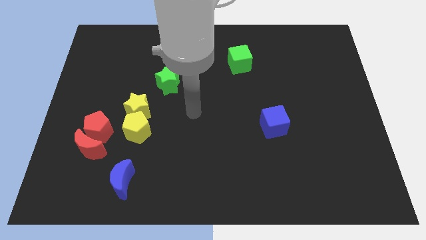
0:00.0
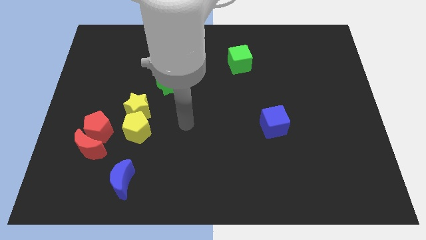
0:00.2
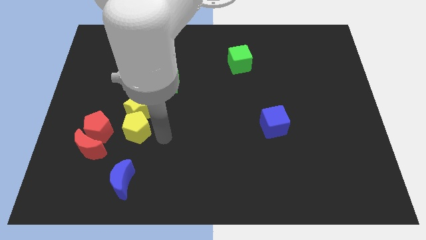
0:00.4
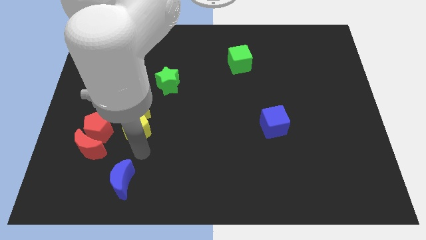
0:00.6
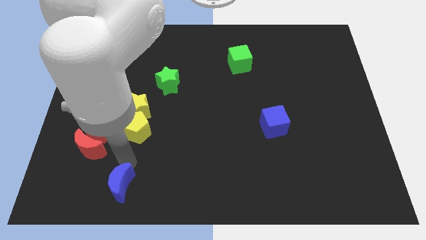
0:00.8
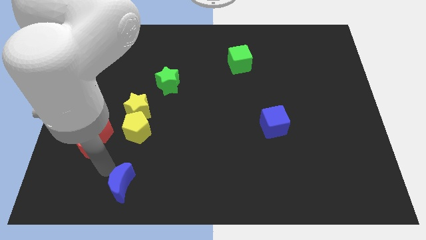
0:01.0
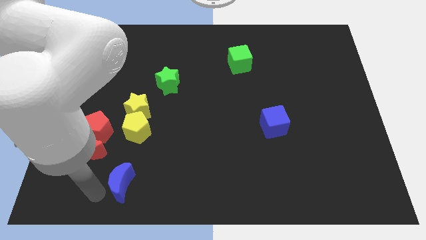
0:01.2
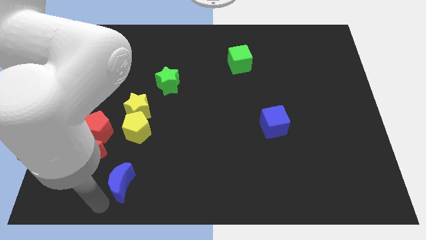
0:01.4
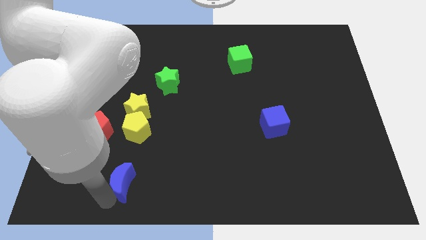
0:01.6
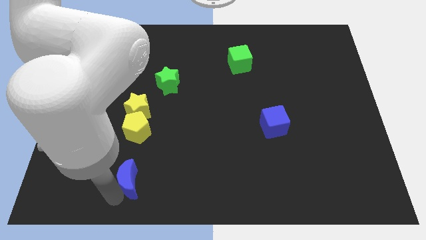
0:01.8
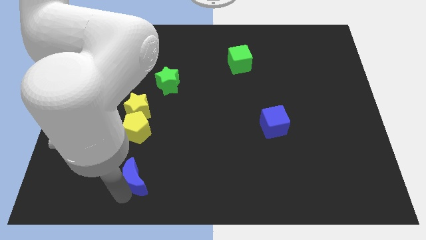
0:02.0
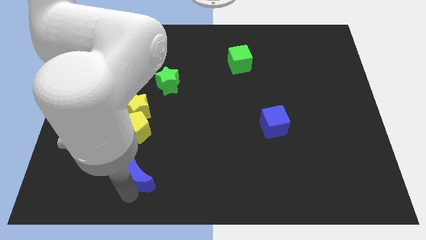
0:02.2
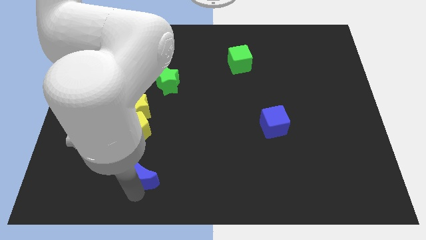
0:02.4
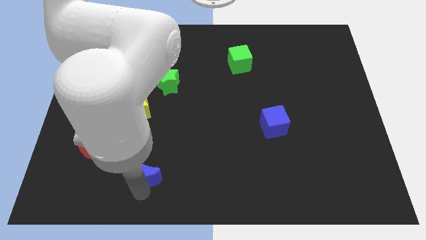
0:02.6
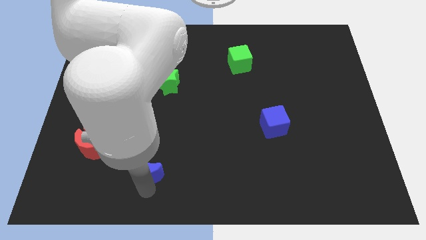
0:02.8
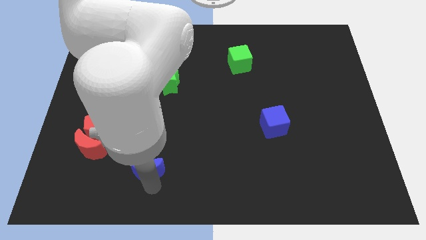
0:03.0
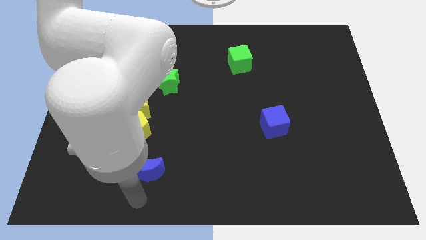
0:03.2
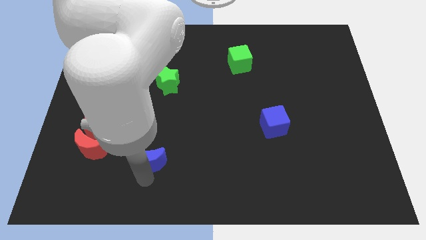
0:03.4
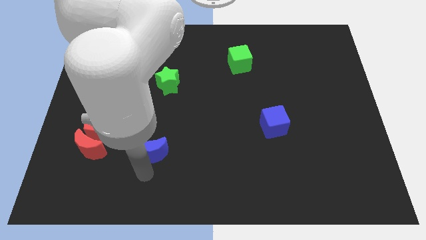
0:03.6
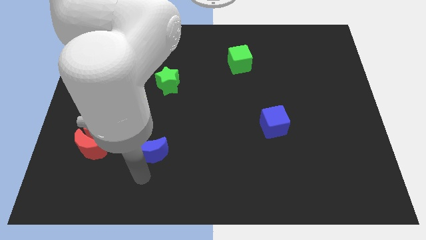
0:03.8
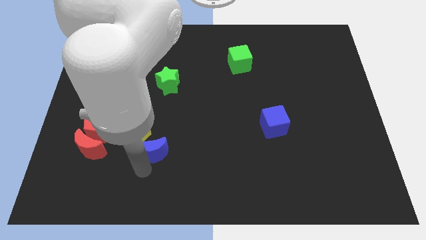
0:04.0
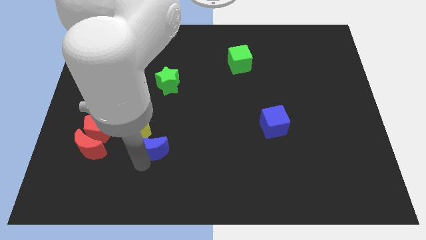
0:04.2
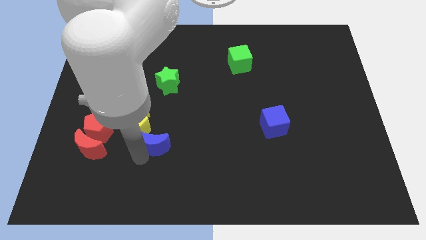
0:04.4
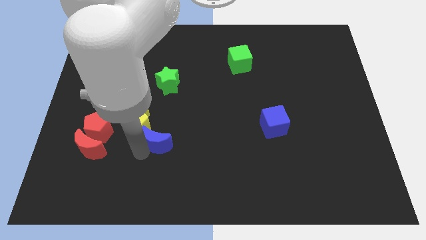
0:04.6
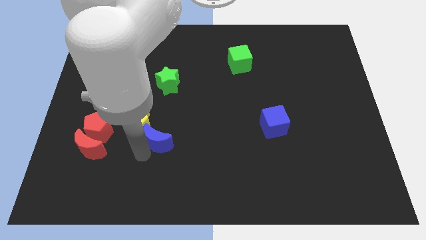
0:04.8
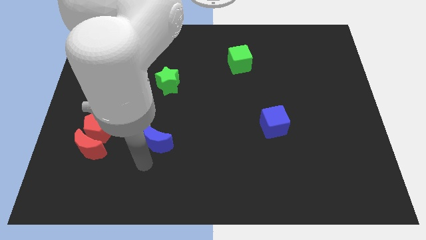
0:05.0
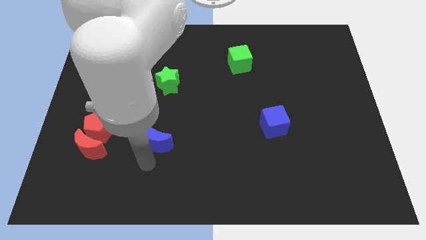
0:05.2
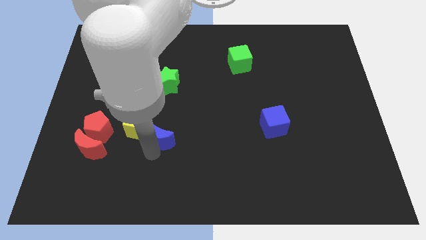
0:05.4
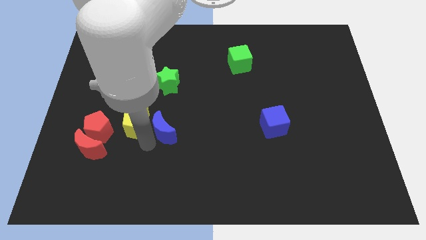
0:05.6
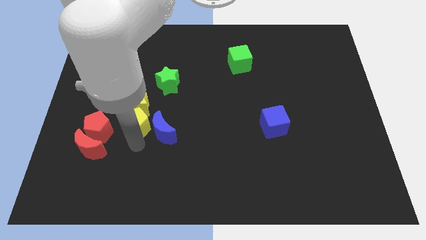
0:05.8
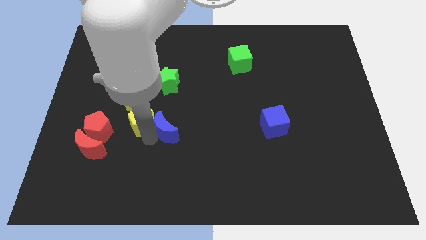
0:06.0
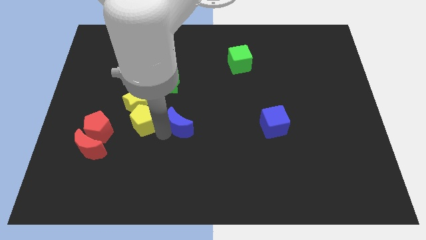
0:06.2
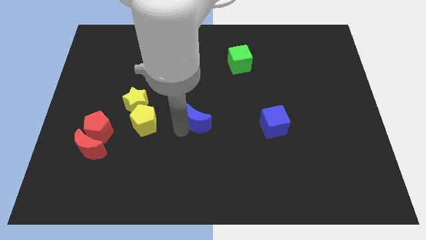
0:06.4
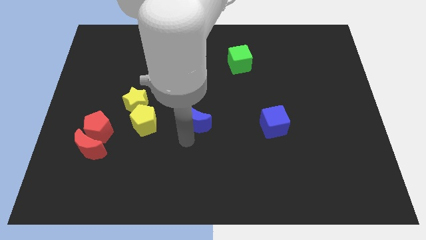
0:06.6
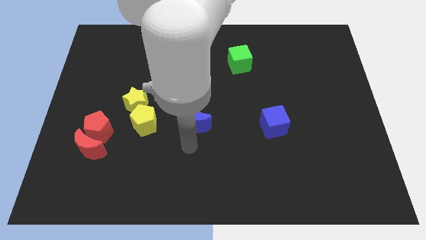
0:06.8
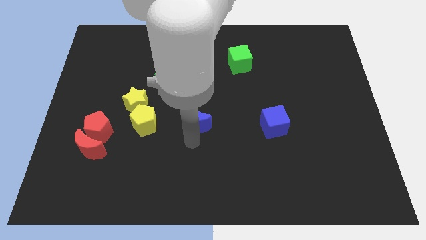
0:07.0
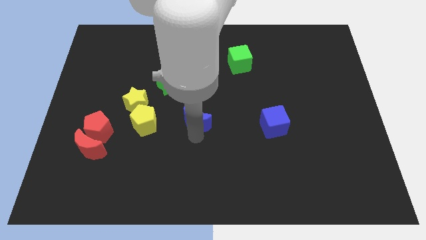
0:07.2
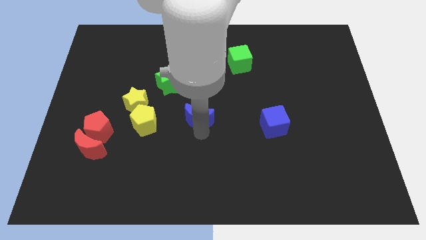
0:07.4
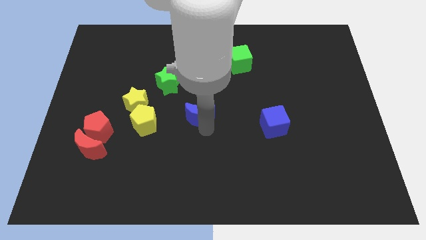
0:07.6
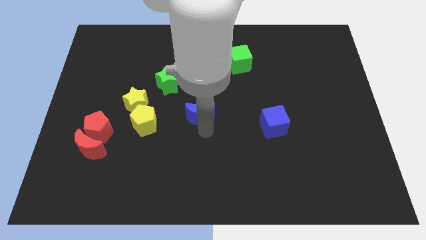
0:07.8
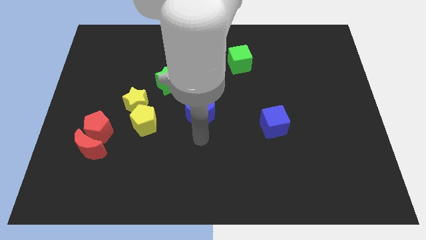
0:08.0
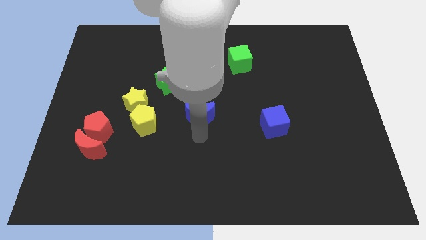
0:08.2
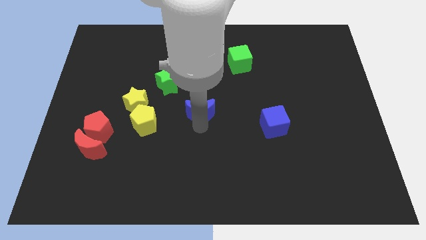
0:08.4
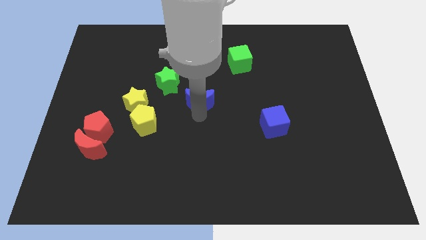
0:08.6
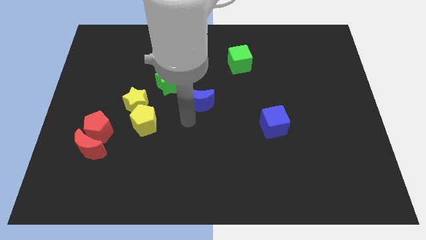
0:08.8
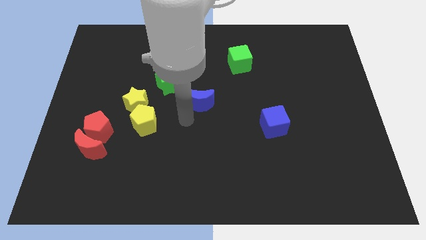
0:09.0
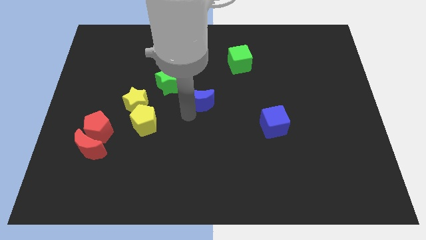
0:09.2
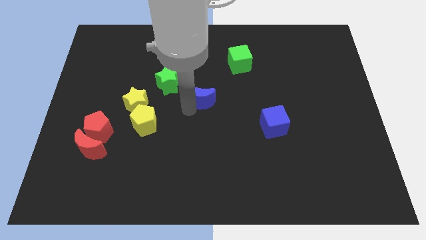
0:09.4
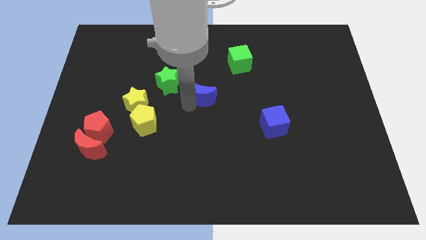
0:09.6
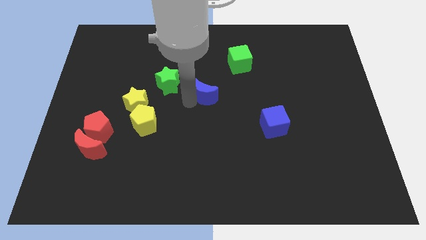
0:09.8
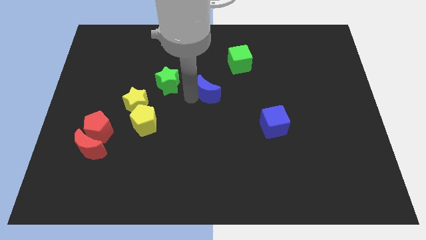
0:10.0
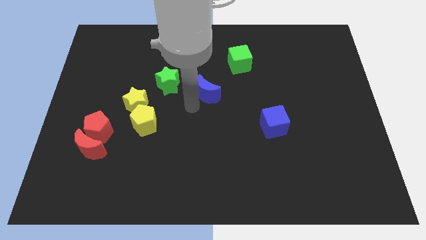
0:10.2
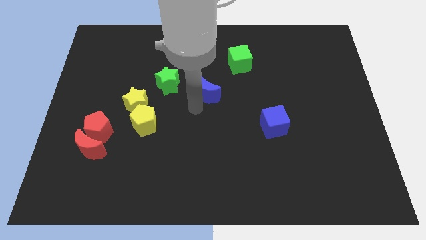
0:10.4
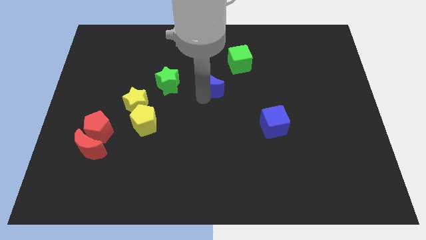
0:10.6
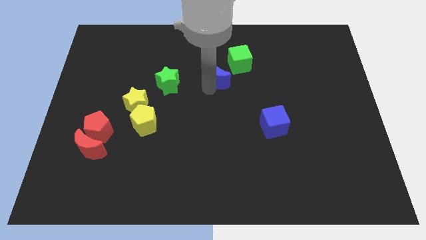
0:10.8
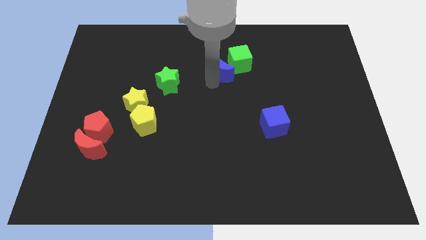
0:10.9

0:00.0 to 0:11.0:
move the blue moon close to the green cube

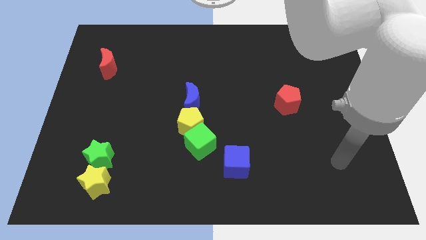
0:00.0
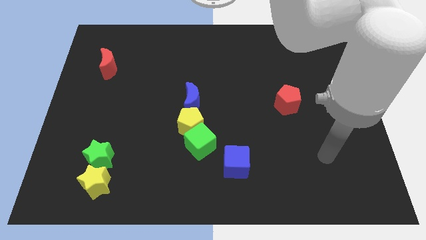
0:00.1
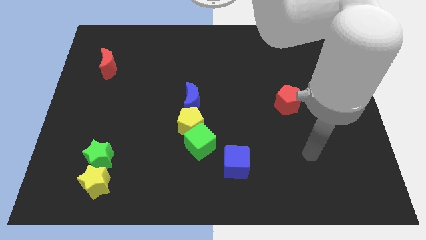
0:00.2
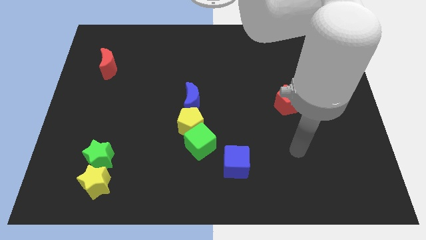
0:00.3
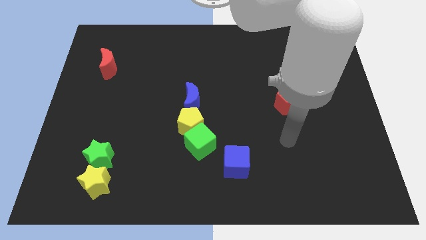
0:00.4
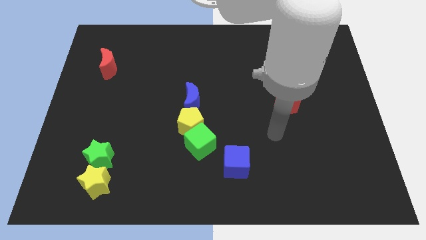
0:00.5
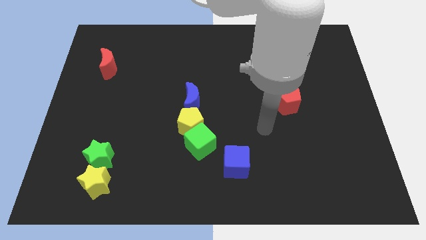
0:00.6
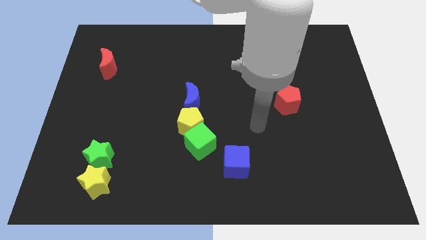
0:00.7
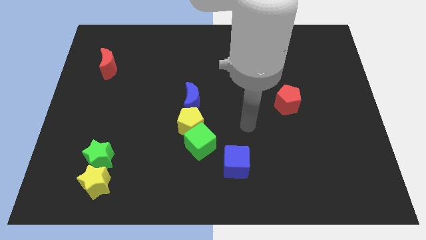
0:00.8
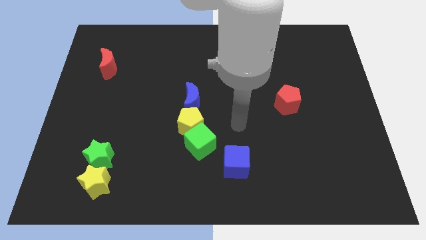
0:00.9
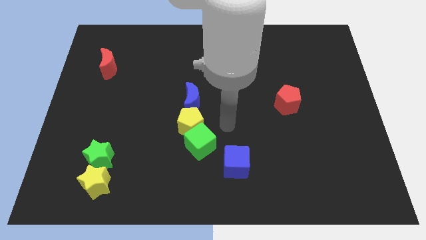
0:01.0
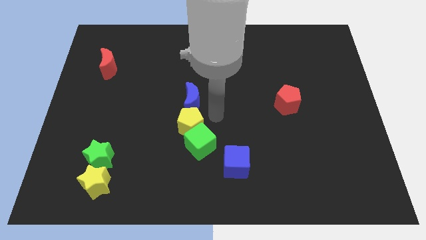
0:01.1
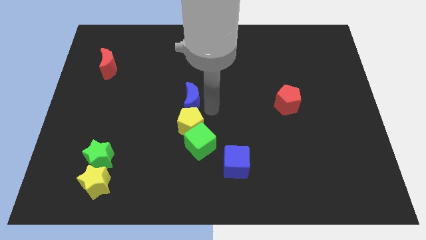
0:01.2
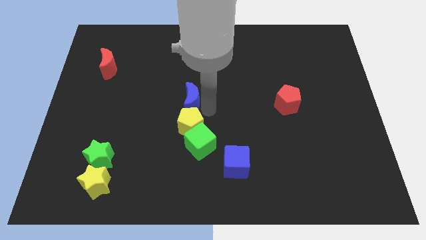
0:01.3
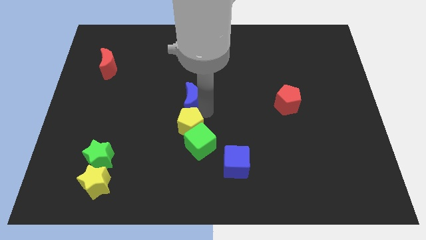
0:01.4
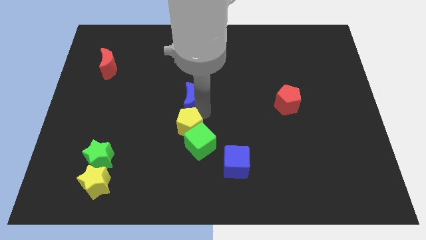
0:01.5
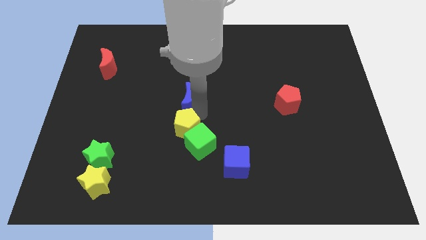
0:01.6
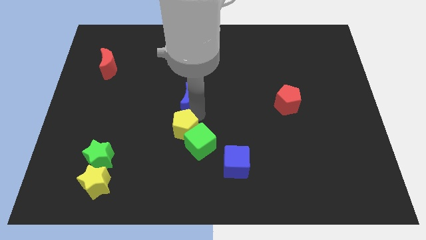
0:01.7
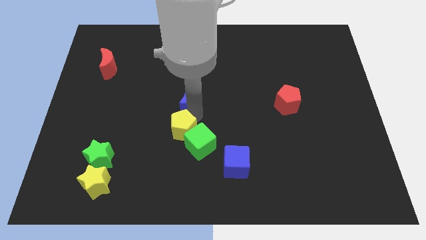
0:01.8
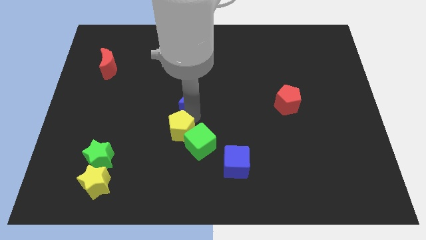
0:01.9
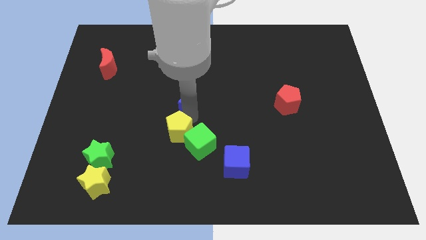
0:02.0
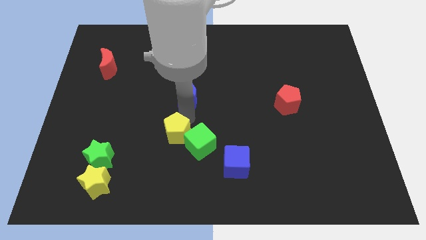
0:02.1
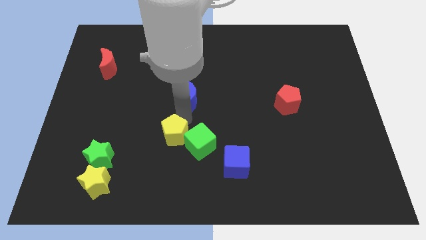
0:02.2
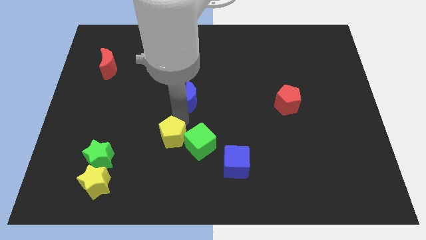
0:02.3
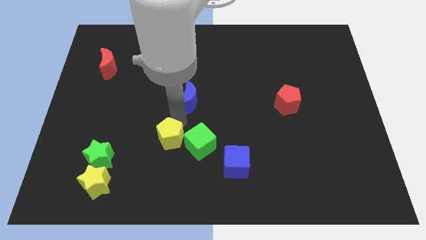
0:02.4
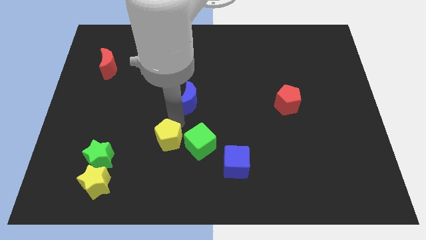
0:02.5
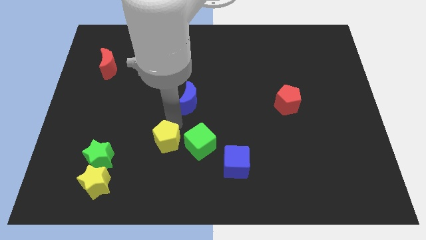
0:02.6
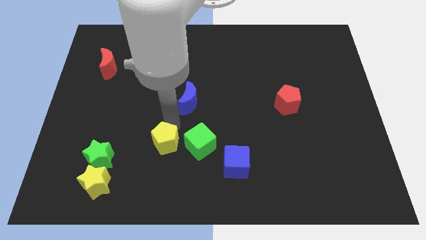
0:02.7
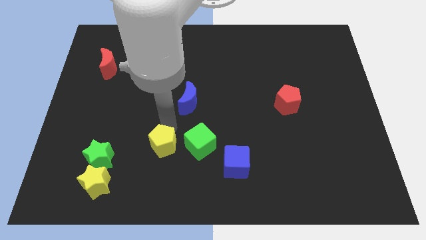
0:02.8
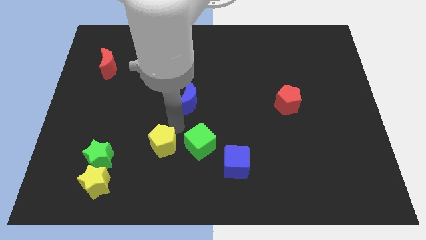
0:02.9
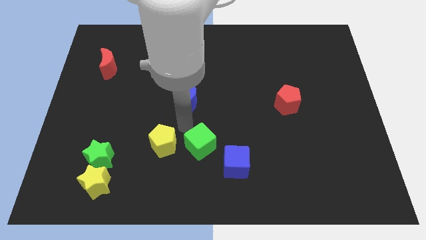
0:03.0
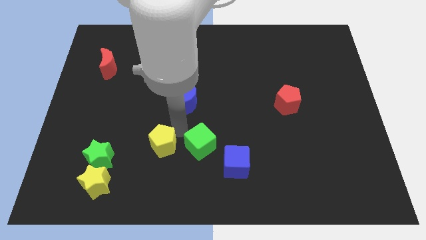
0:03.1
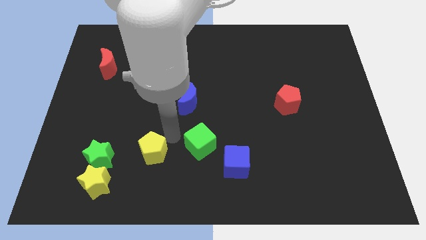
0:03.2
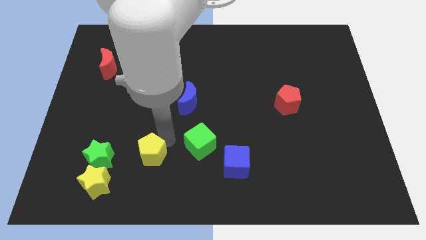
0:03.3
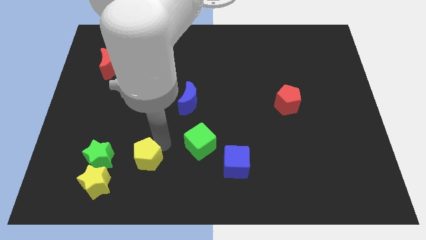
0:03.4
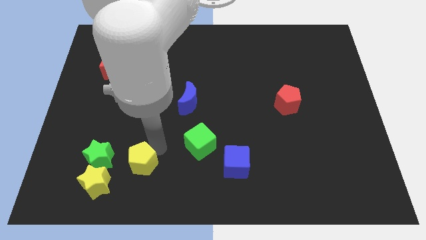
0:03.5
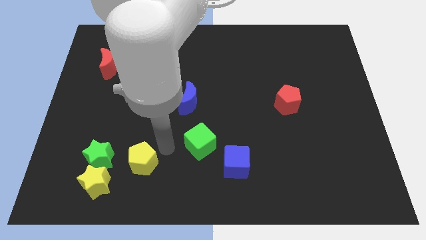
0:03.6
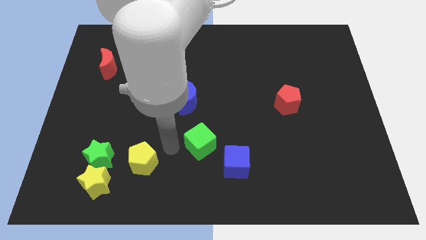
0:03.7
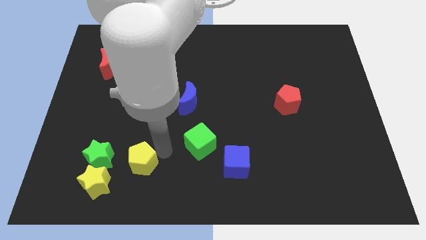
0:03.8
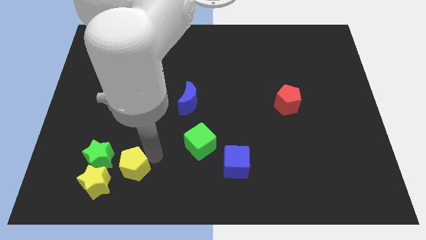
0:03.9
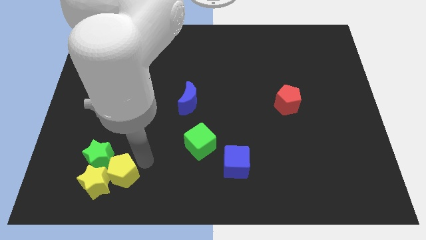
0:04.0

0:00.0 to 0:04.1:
put the yellow pentagon to the yellow star
